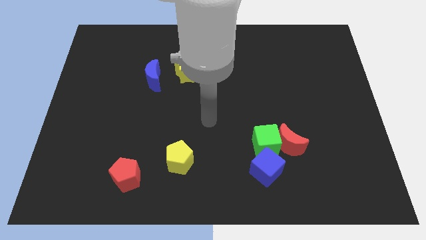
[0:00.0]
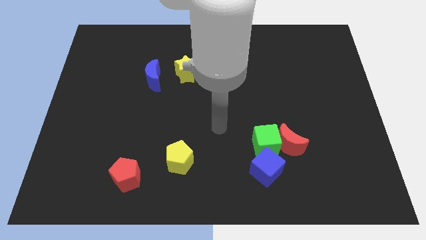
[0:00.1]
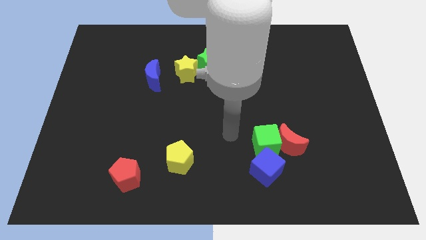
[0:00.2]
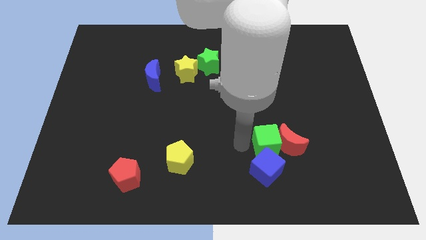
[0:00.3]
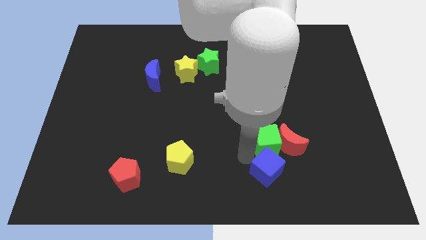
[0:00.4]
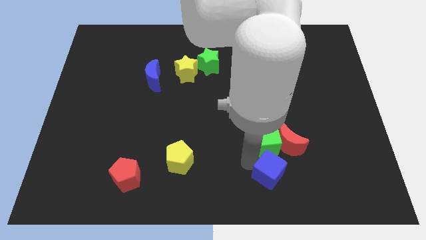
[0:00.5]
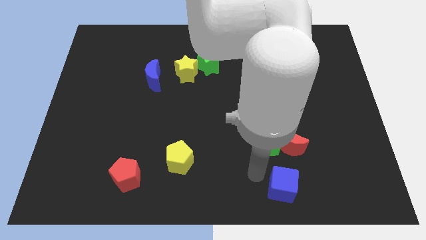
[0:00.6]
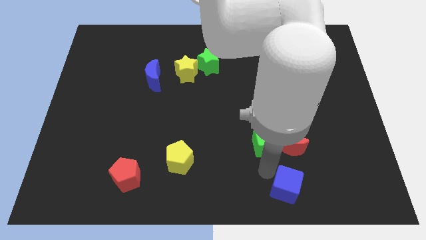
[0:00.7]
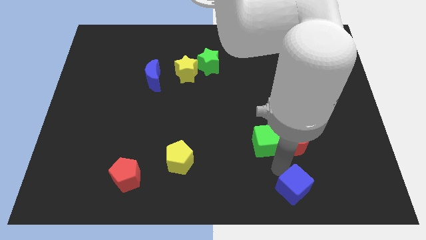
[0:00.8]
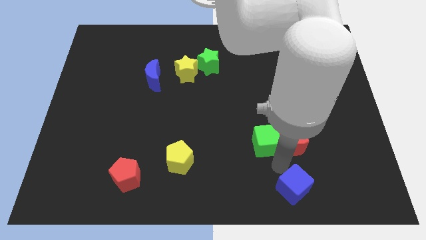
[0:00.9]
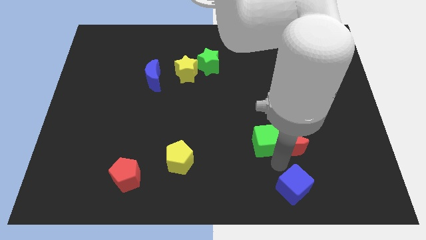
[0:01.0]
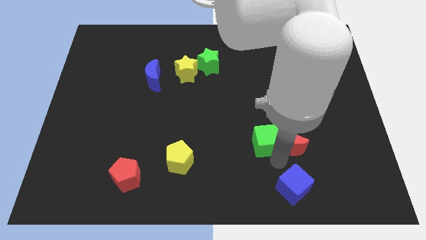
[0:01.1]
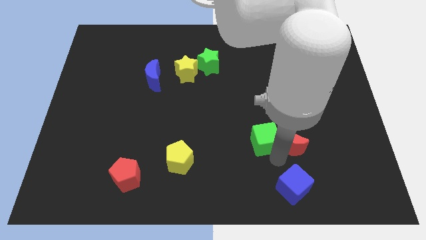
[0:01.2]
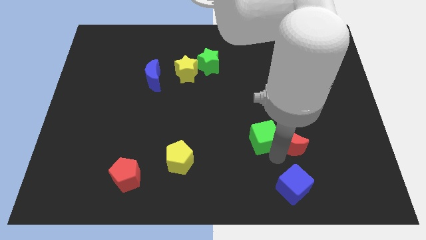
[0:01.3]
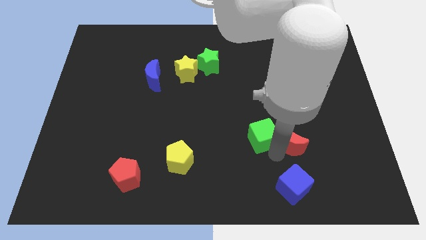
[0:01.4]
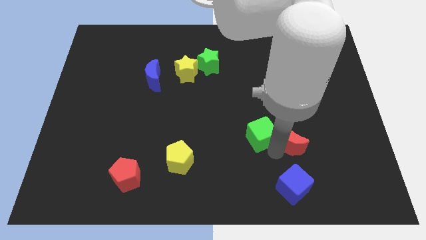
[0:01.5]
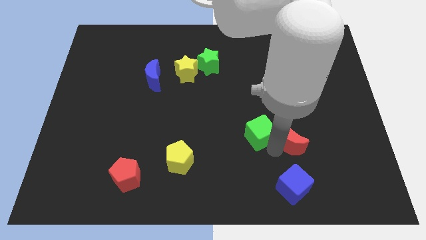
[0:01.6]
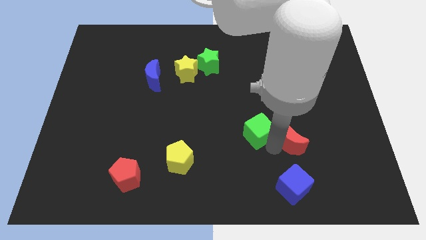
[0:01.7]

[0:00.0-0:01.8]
pull the green cube apart from the red moon and blue cube

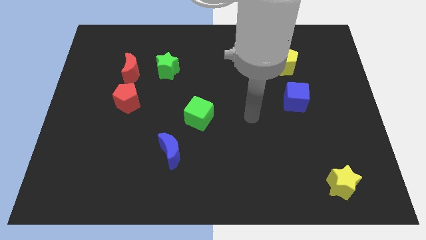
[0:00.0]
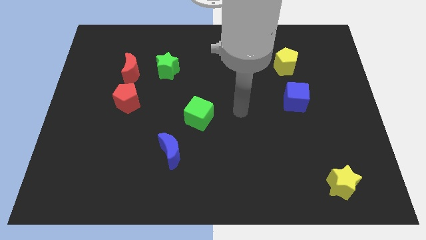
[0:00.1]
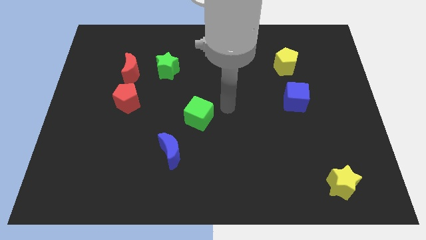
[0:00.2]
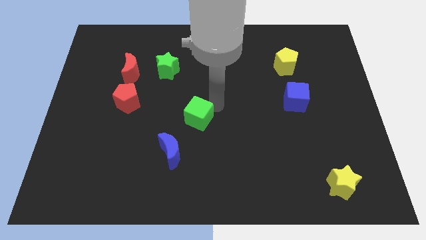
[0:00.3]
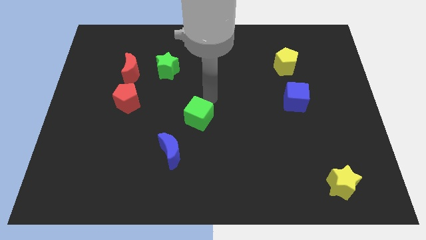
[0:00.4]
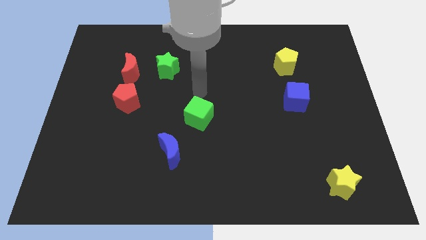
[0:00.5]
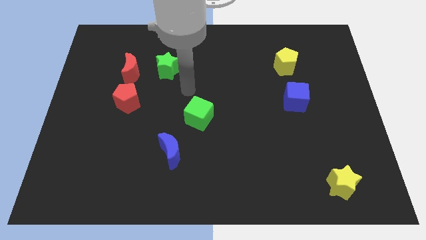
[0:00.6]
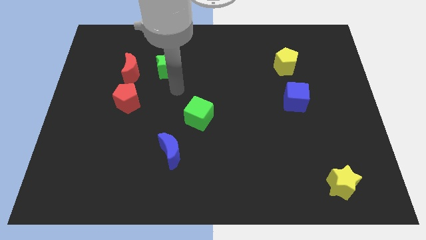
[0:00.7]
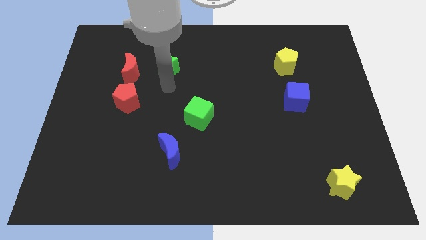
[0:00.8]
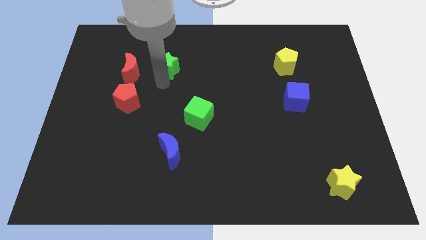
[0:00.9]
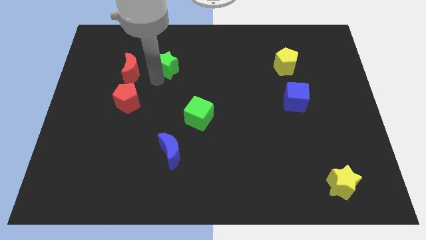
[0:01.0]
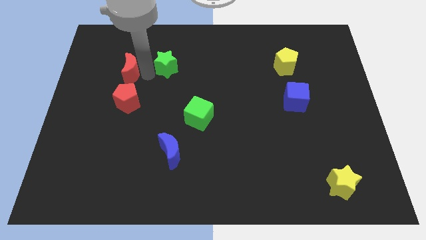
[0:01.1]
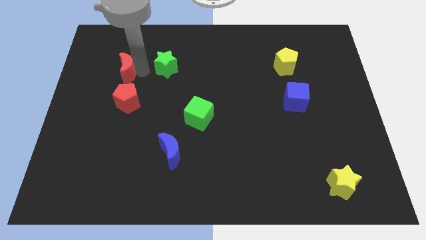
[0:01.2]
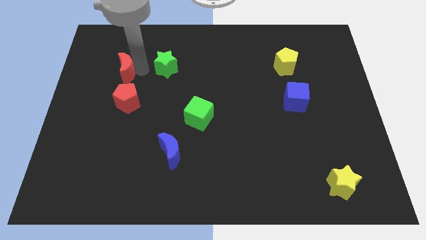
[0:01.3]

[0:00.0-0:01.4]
separate the green star from the red moon

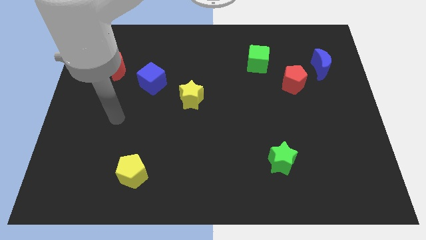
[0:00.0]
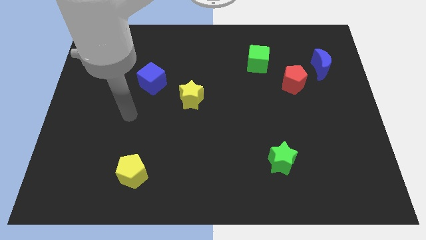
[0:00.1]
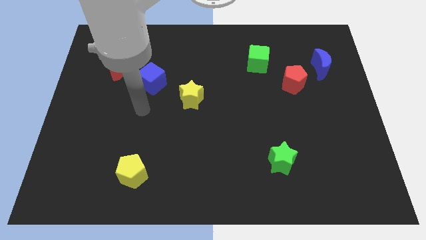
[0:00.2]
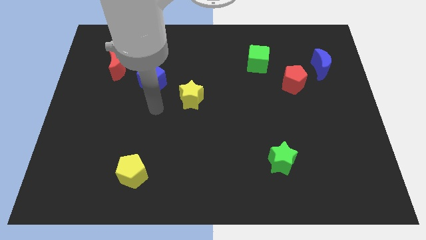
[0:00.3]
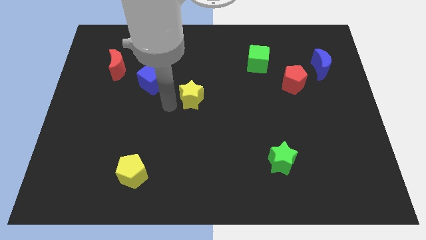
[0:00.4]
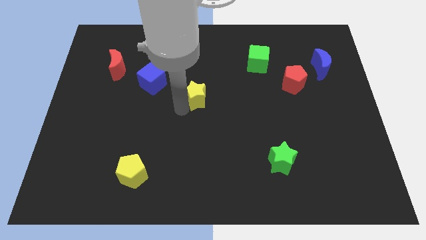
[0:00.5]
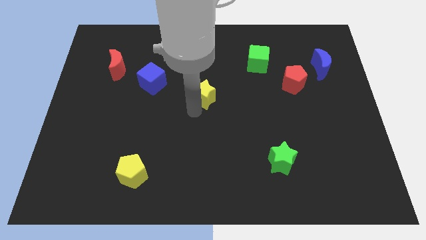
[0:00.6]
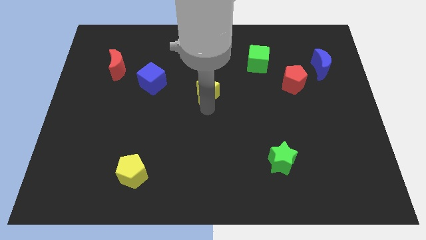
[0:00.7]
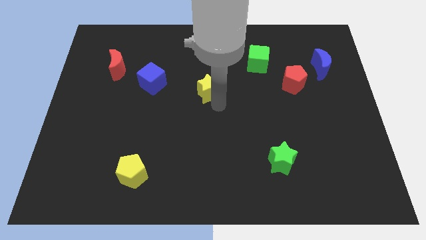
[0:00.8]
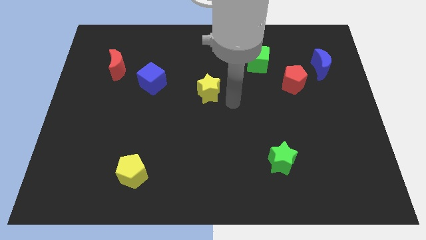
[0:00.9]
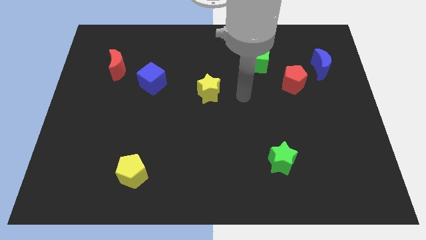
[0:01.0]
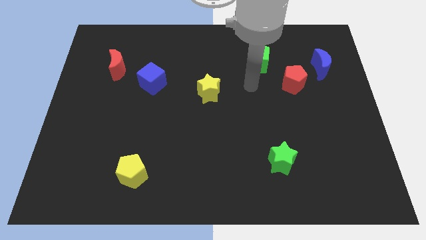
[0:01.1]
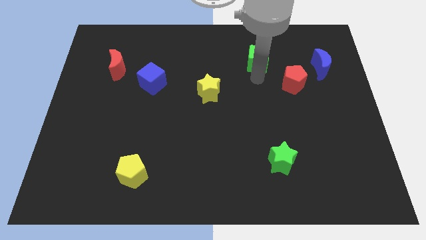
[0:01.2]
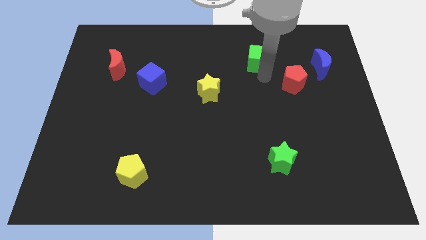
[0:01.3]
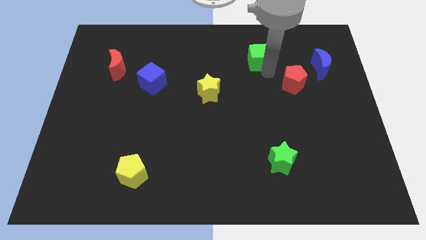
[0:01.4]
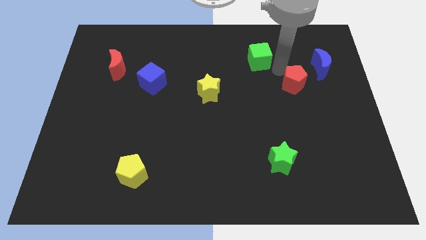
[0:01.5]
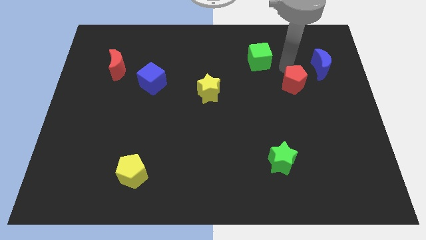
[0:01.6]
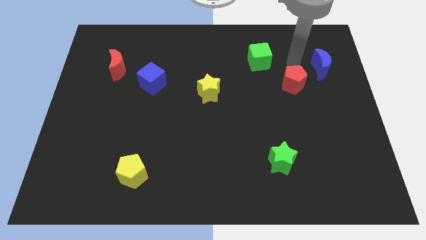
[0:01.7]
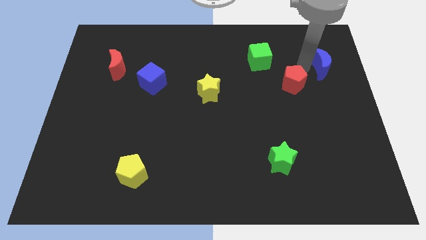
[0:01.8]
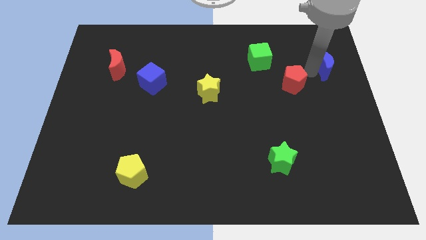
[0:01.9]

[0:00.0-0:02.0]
move the red pentagon away from the blue moon

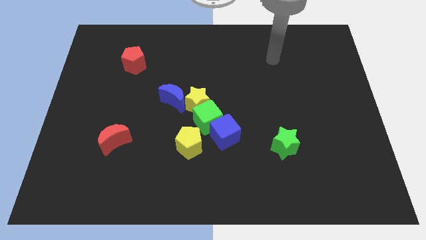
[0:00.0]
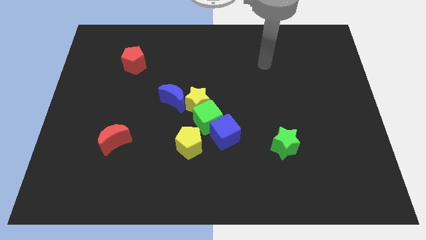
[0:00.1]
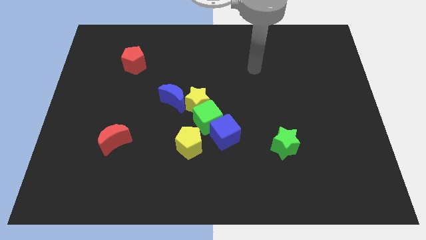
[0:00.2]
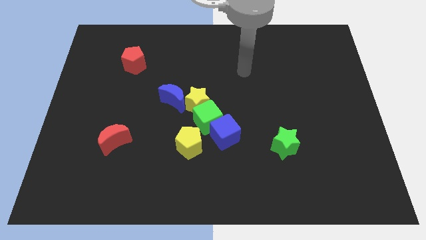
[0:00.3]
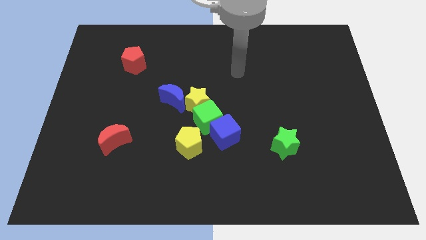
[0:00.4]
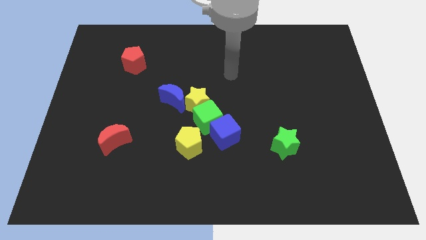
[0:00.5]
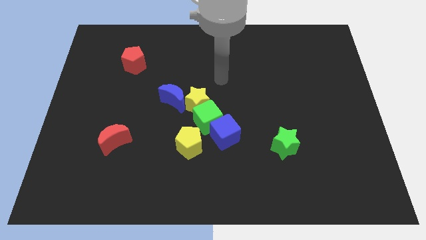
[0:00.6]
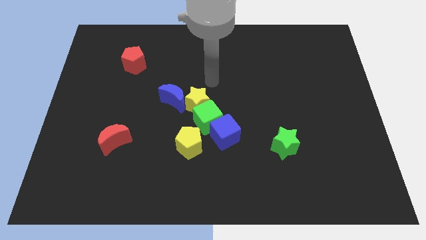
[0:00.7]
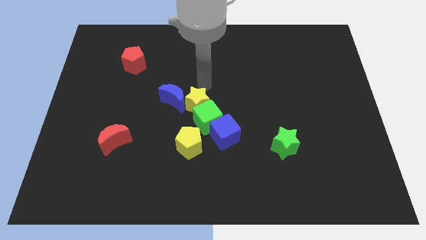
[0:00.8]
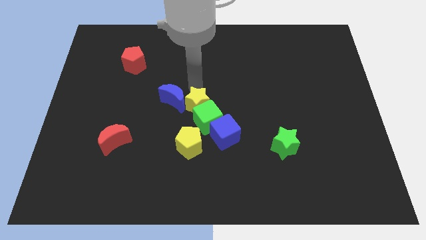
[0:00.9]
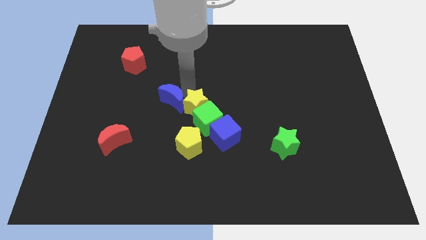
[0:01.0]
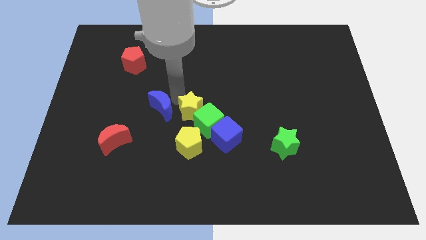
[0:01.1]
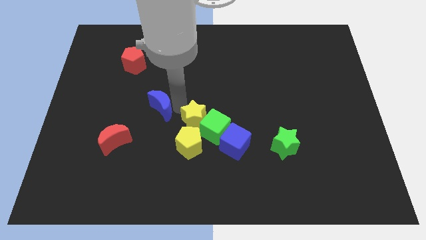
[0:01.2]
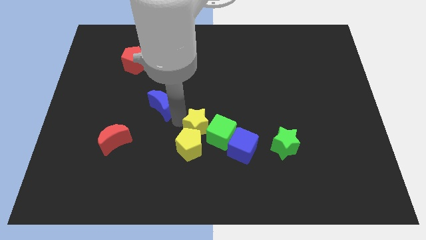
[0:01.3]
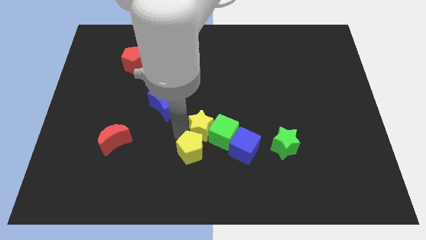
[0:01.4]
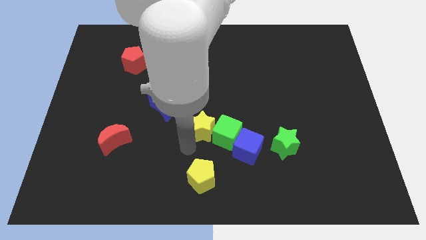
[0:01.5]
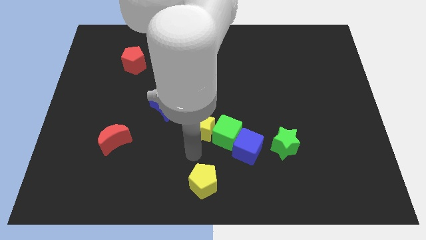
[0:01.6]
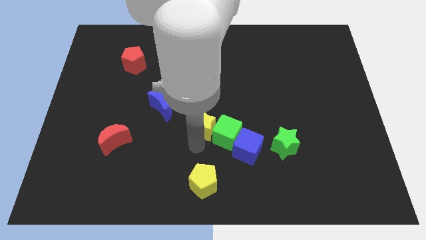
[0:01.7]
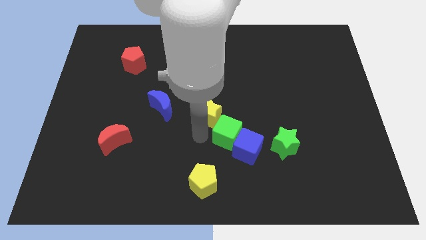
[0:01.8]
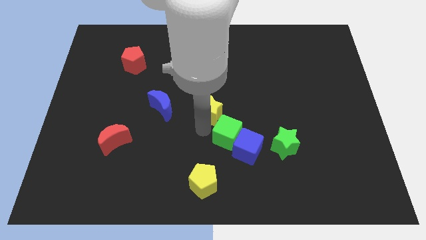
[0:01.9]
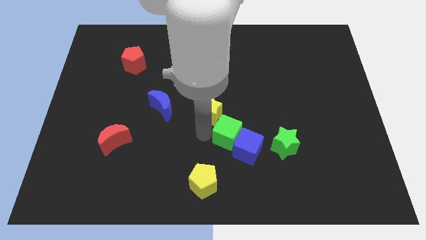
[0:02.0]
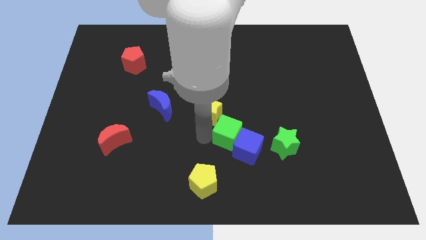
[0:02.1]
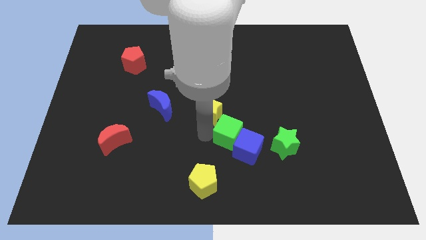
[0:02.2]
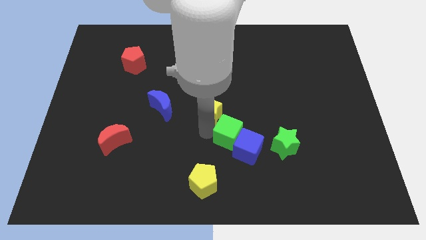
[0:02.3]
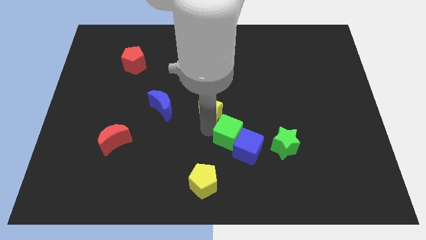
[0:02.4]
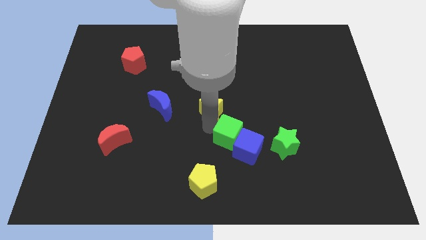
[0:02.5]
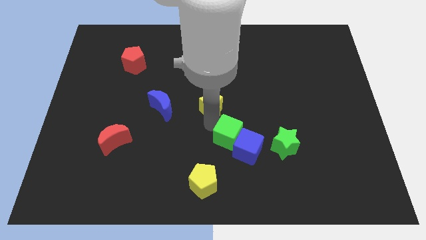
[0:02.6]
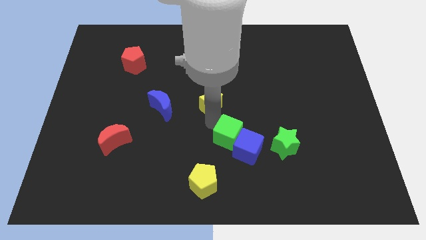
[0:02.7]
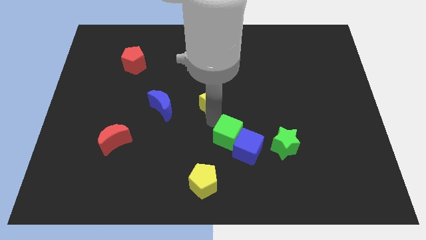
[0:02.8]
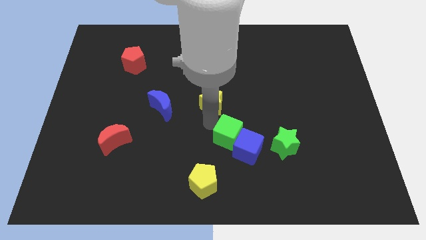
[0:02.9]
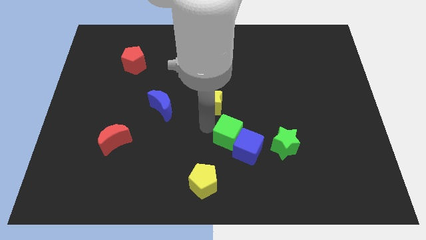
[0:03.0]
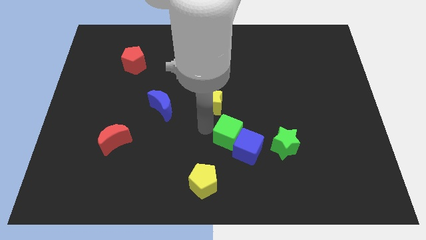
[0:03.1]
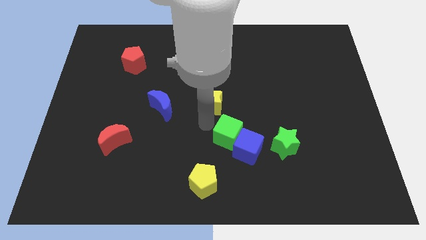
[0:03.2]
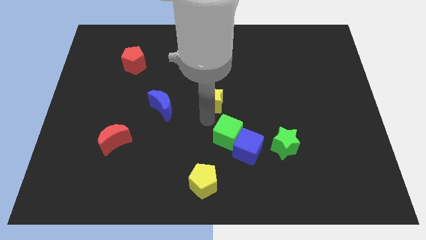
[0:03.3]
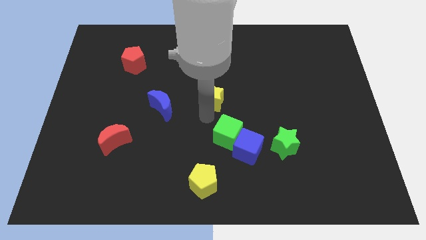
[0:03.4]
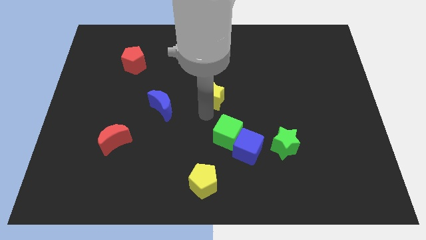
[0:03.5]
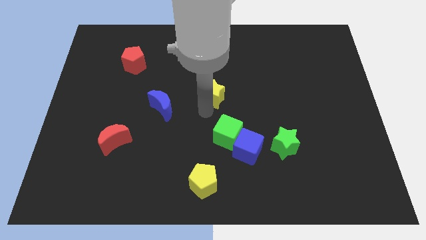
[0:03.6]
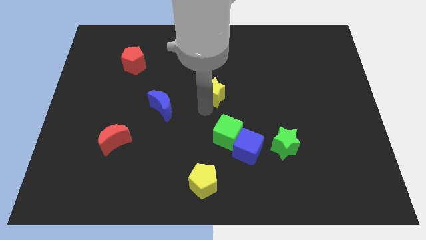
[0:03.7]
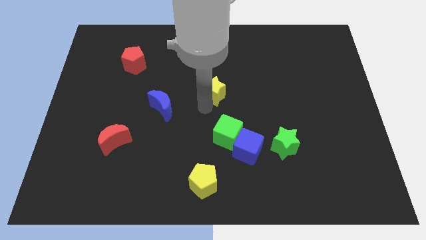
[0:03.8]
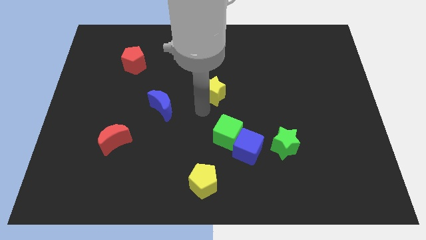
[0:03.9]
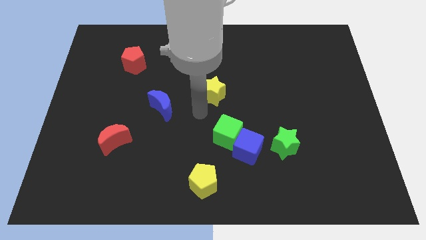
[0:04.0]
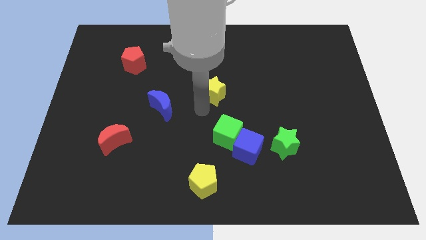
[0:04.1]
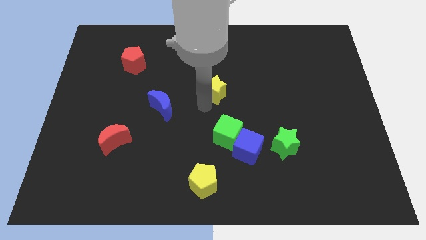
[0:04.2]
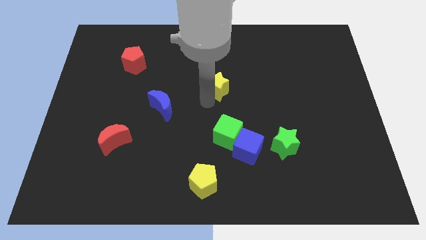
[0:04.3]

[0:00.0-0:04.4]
pull the yellow star apart from the green cube and blue moon

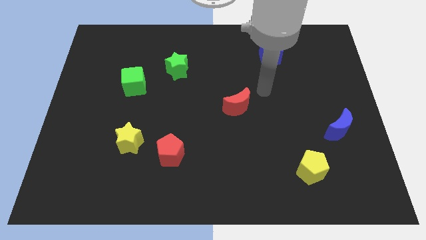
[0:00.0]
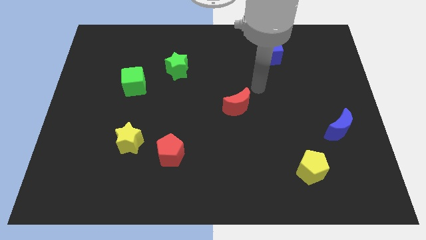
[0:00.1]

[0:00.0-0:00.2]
separate the red pentagon from the yellow star
